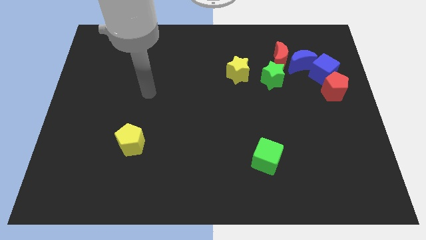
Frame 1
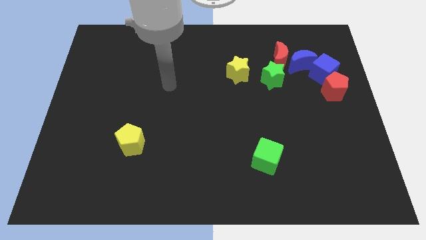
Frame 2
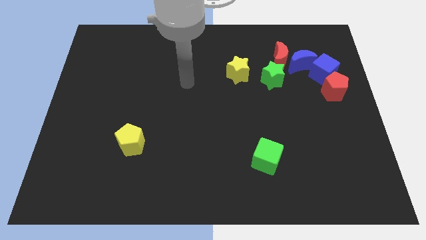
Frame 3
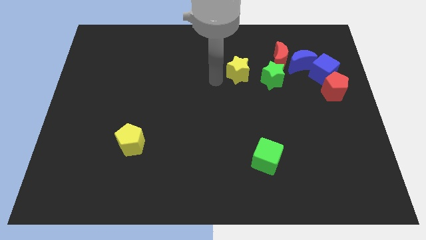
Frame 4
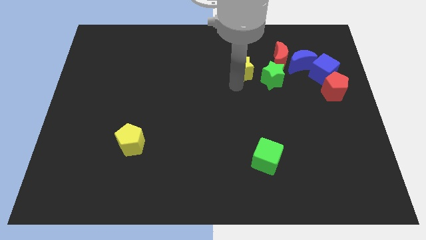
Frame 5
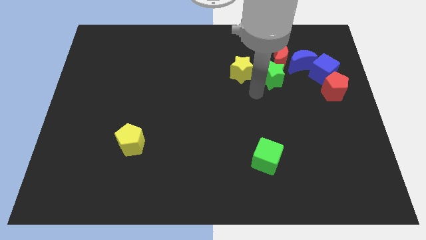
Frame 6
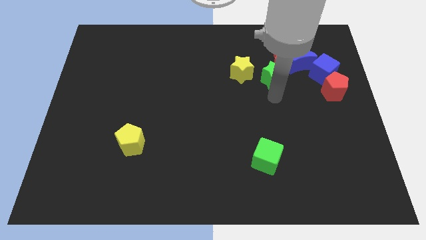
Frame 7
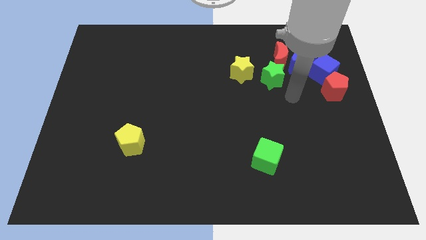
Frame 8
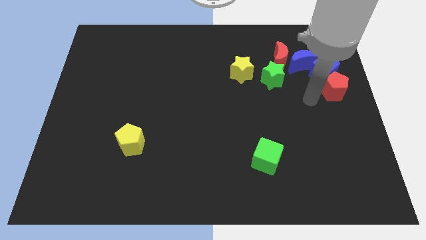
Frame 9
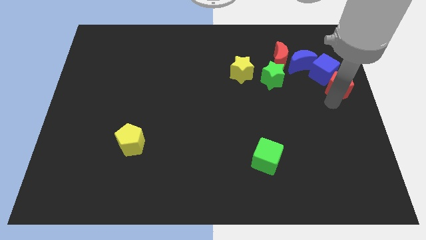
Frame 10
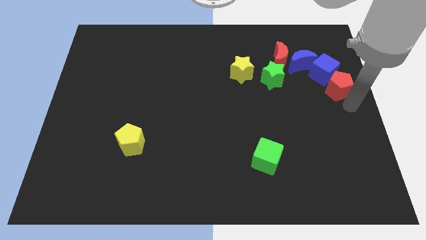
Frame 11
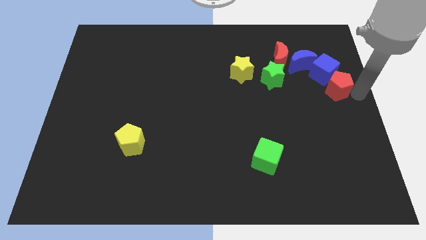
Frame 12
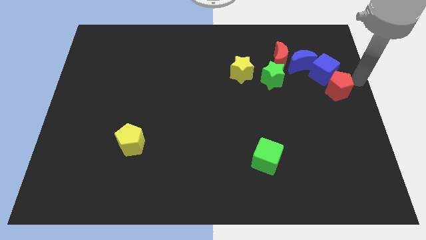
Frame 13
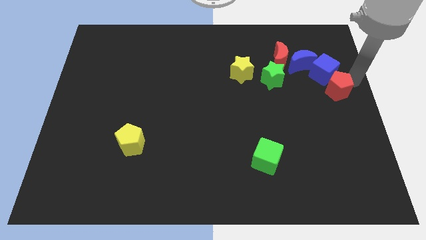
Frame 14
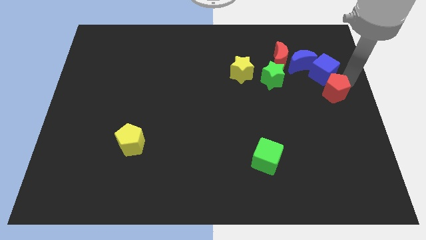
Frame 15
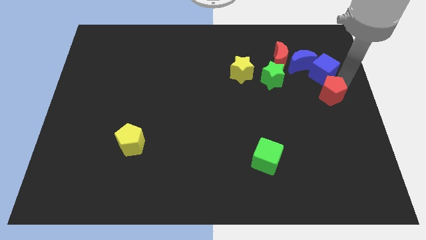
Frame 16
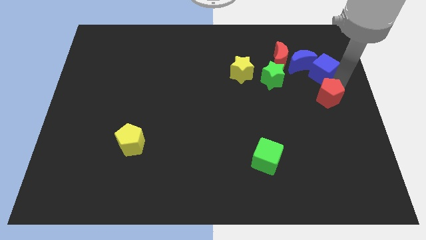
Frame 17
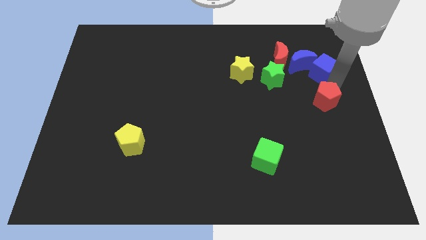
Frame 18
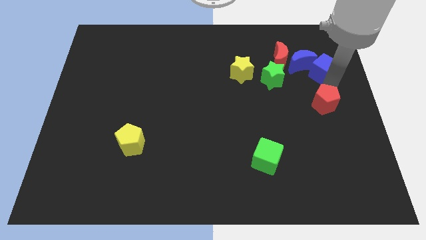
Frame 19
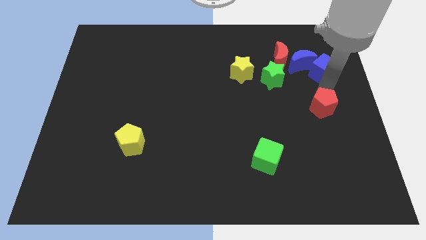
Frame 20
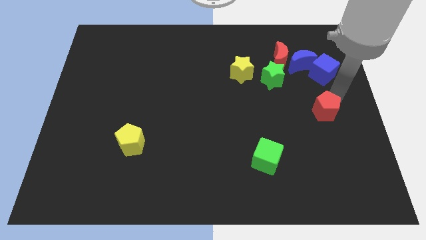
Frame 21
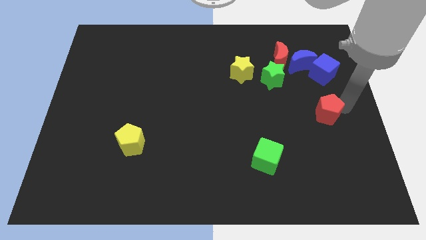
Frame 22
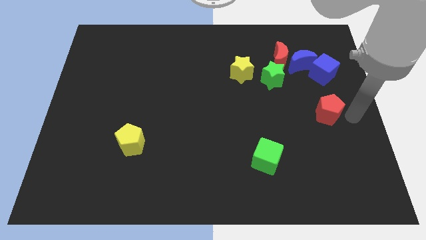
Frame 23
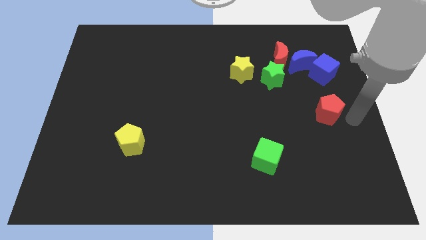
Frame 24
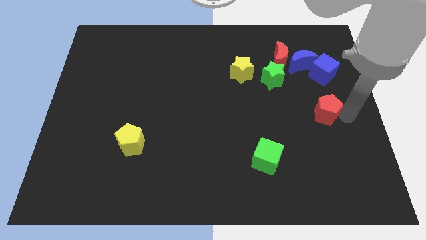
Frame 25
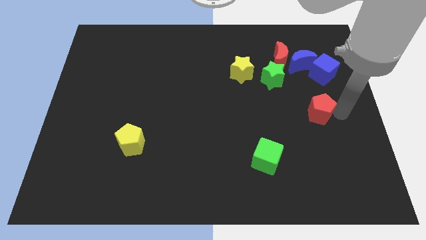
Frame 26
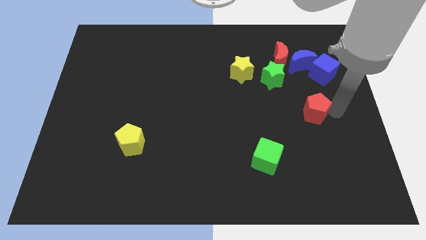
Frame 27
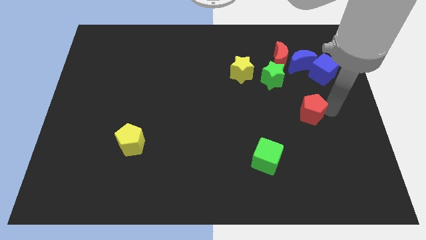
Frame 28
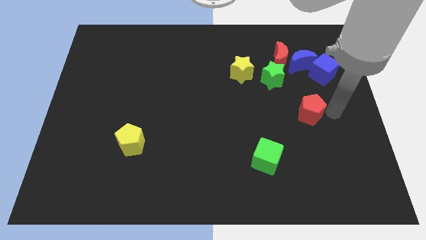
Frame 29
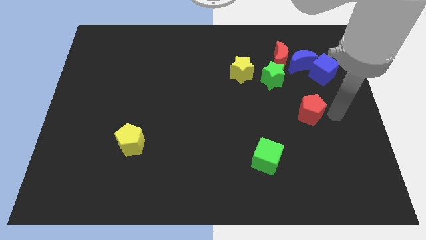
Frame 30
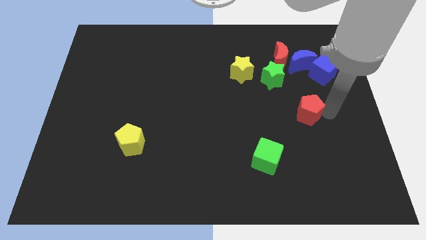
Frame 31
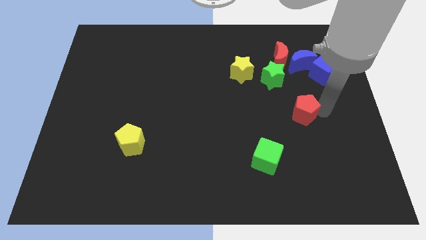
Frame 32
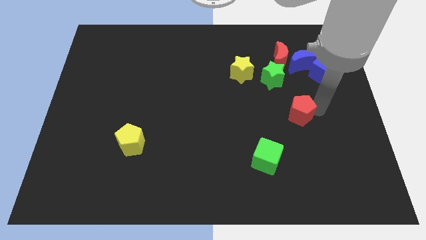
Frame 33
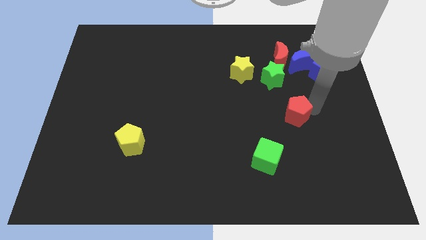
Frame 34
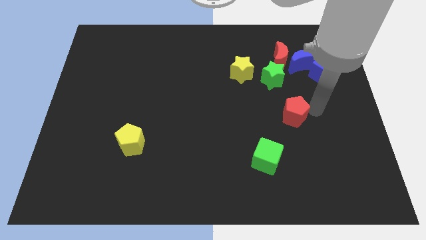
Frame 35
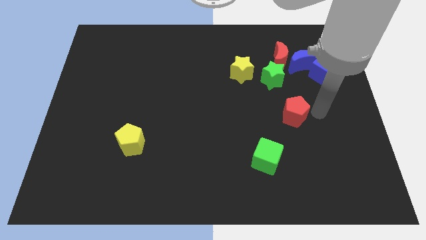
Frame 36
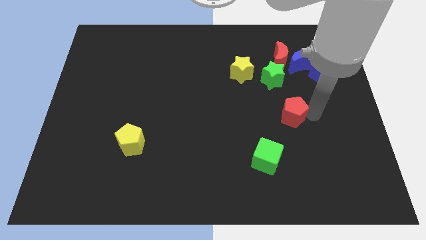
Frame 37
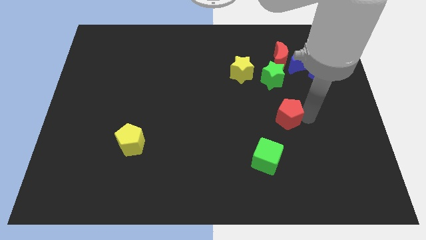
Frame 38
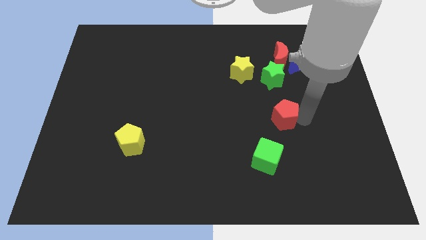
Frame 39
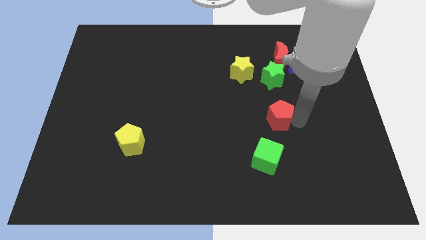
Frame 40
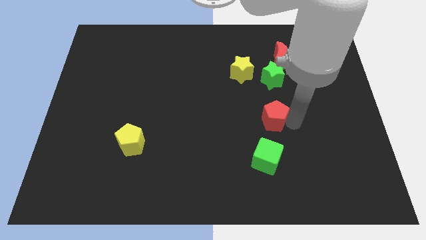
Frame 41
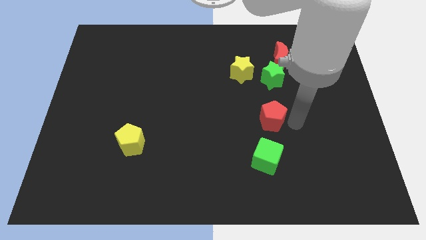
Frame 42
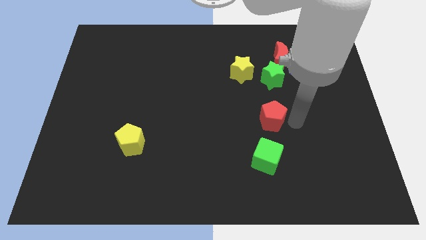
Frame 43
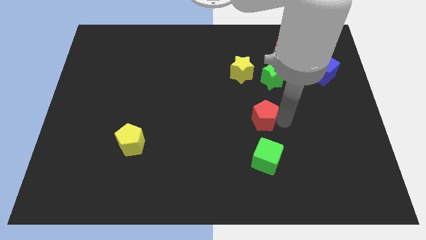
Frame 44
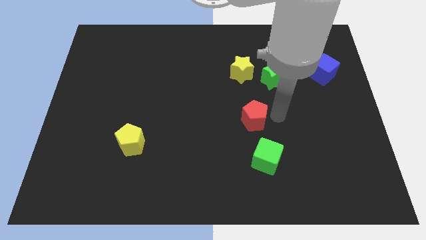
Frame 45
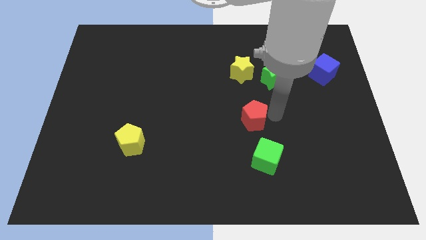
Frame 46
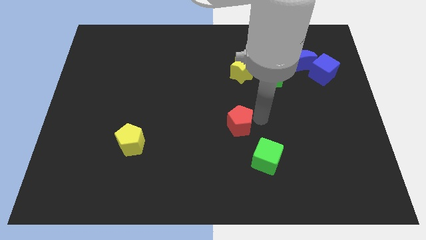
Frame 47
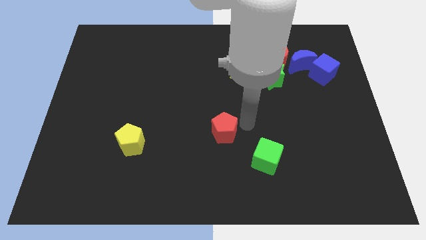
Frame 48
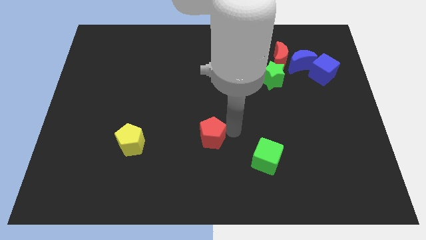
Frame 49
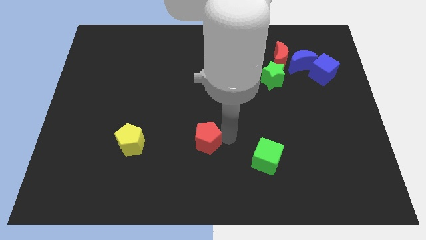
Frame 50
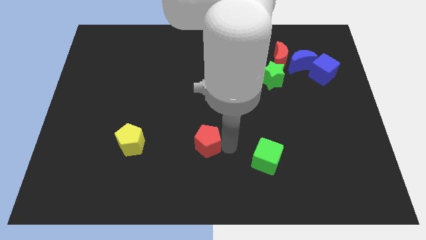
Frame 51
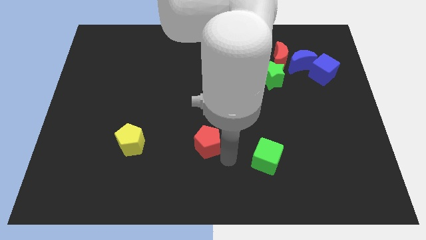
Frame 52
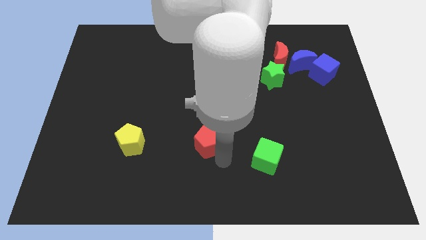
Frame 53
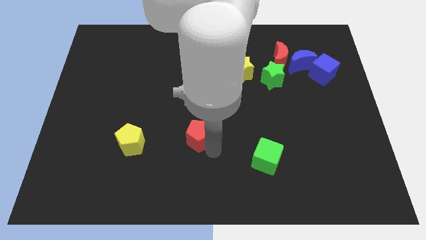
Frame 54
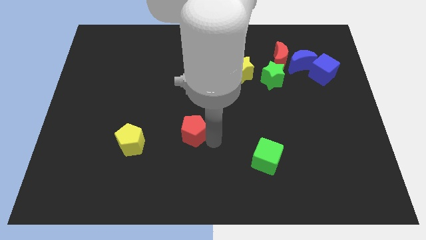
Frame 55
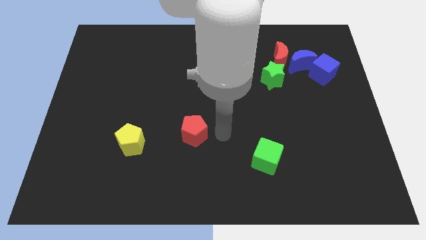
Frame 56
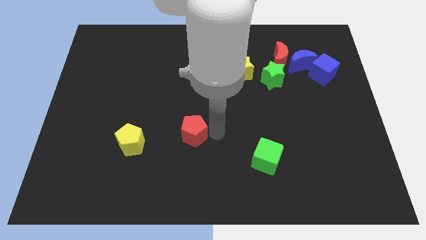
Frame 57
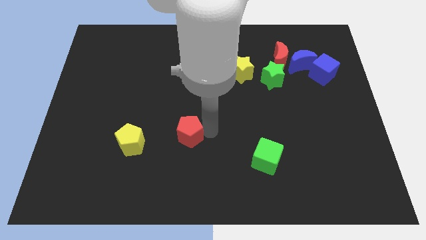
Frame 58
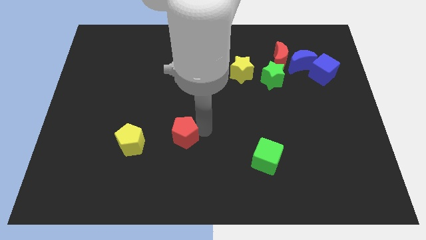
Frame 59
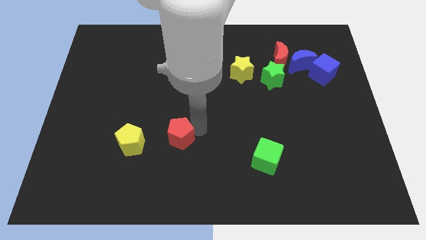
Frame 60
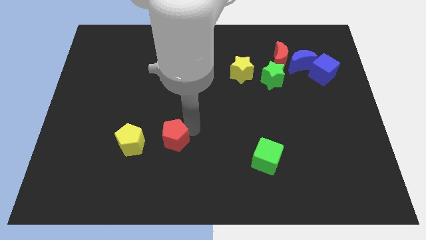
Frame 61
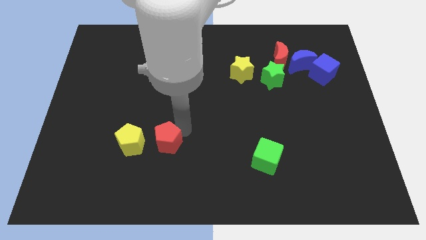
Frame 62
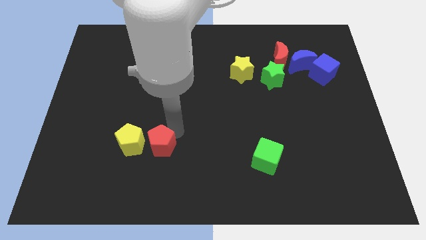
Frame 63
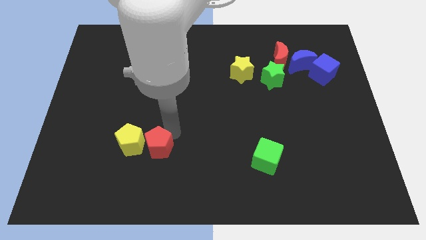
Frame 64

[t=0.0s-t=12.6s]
put the red pentagon next to the yellow pentagon

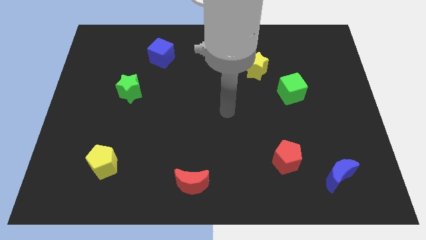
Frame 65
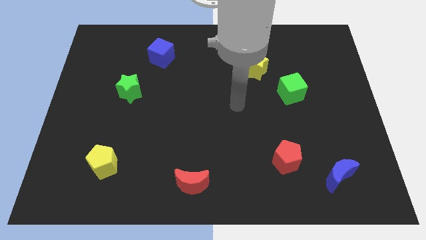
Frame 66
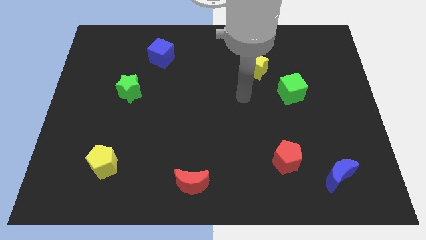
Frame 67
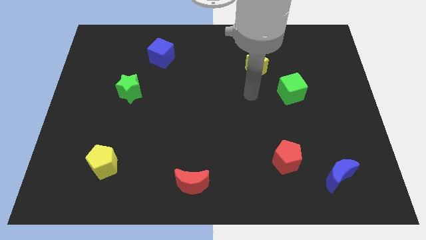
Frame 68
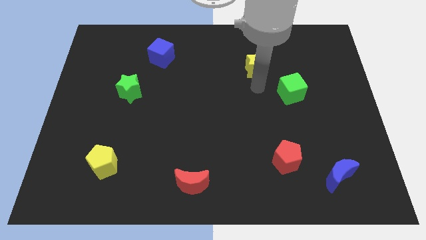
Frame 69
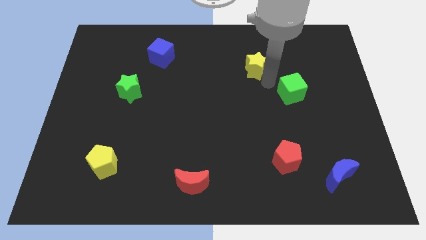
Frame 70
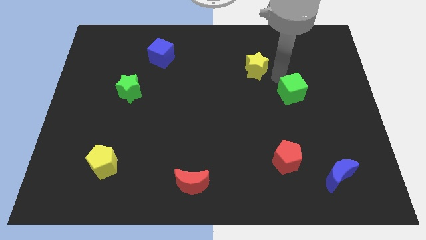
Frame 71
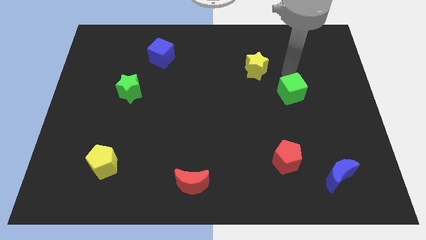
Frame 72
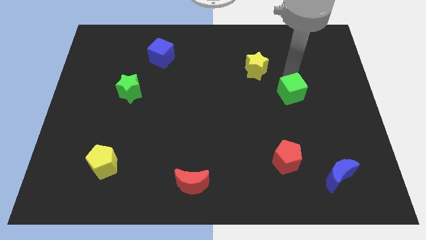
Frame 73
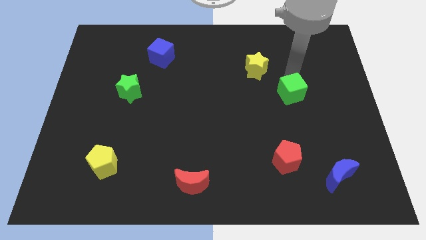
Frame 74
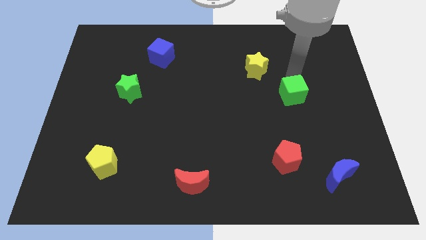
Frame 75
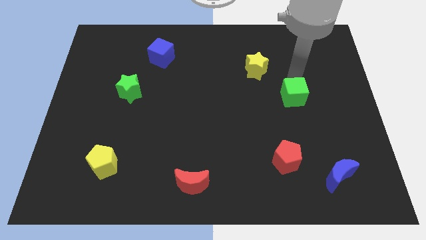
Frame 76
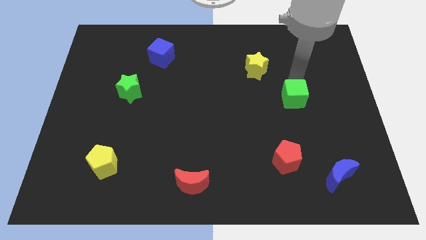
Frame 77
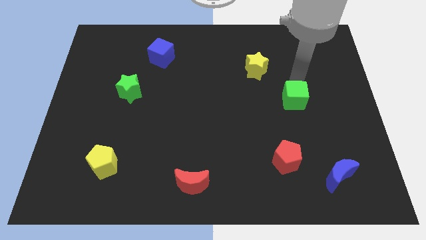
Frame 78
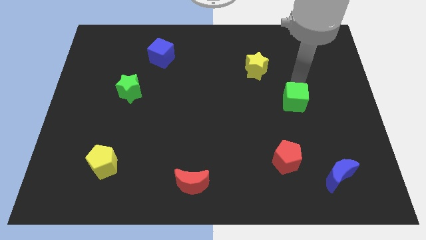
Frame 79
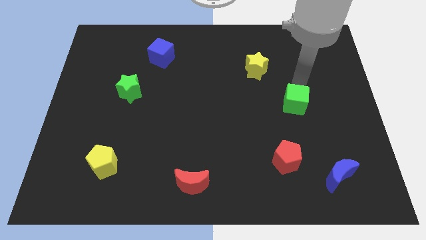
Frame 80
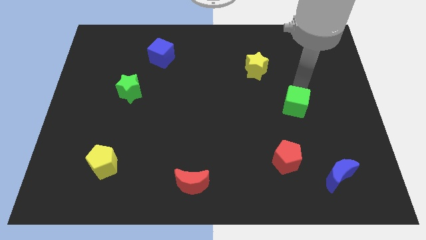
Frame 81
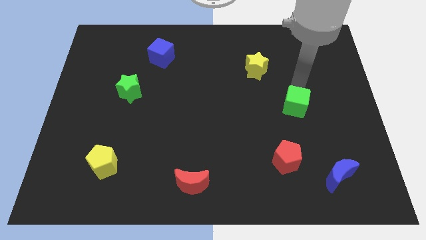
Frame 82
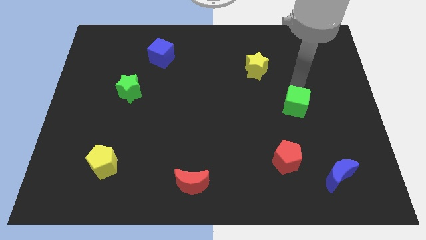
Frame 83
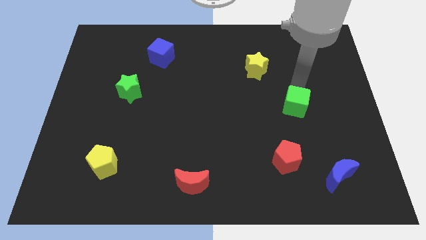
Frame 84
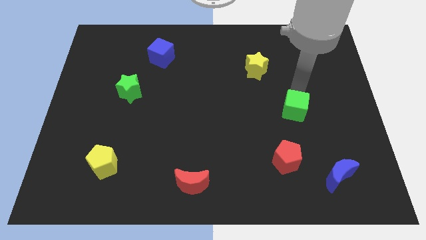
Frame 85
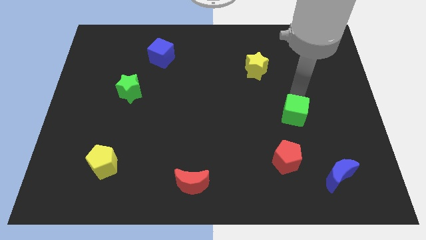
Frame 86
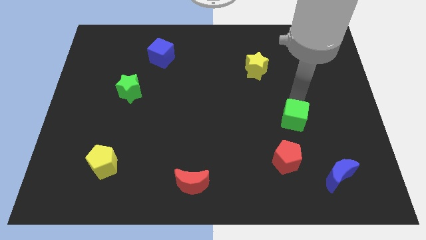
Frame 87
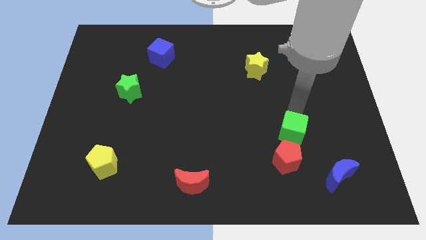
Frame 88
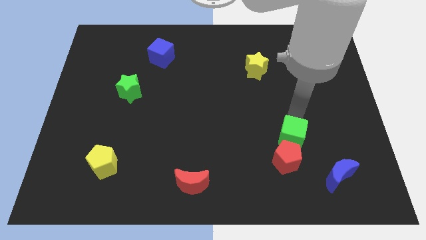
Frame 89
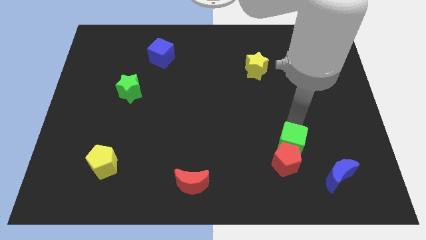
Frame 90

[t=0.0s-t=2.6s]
push the green cube towards the red pentagon
